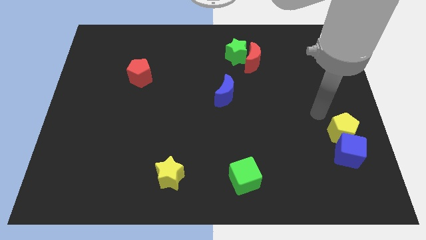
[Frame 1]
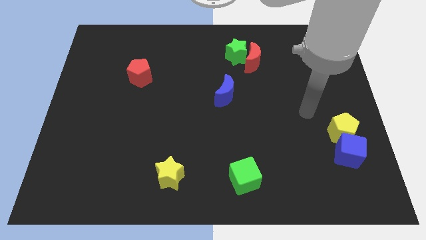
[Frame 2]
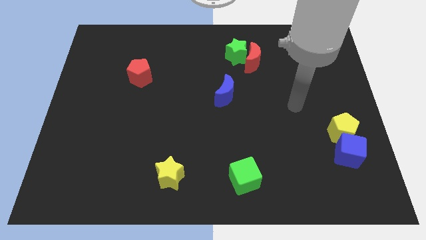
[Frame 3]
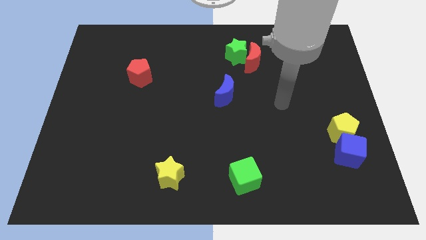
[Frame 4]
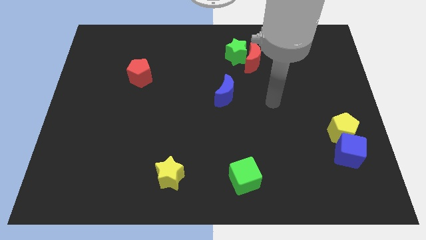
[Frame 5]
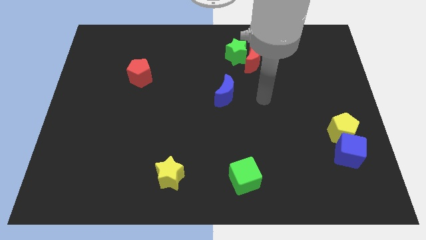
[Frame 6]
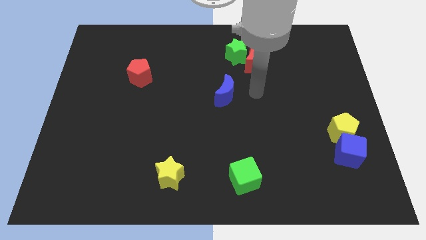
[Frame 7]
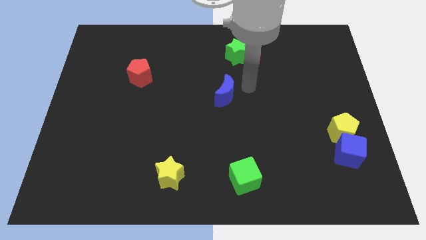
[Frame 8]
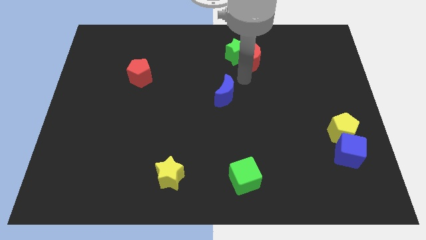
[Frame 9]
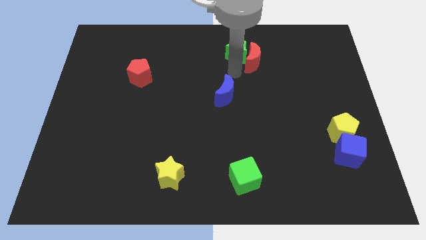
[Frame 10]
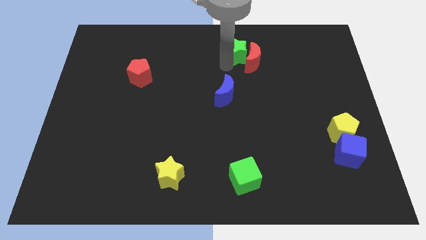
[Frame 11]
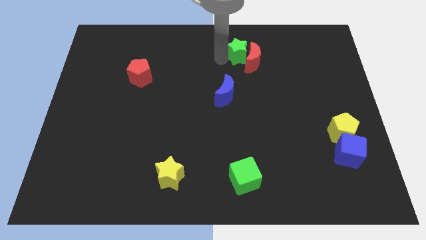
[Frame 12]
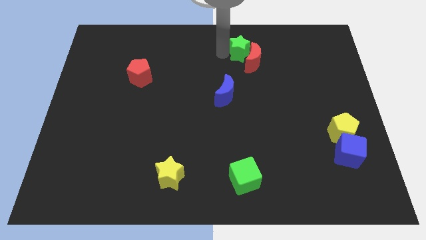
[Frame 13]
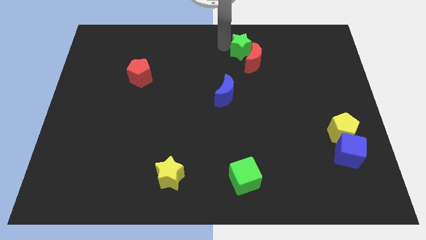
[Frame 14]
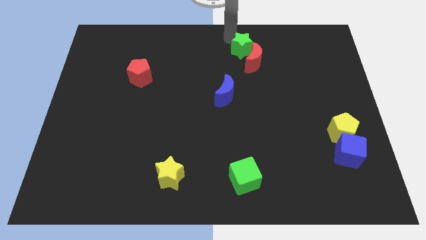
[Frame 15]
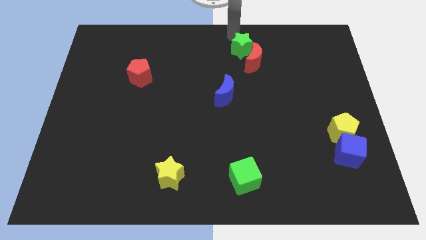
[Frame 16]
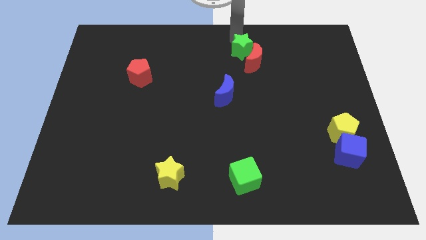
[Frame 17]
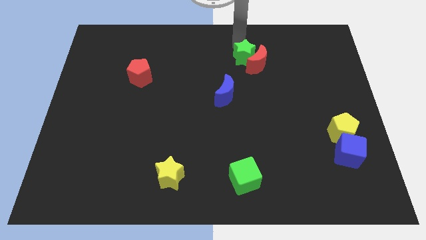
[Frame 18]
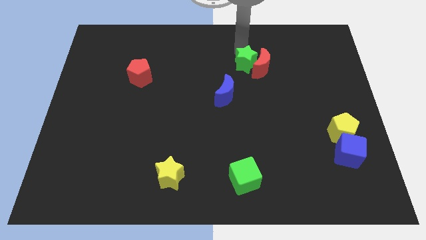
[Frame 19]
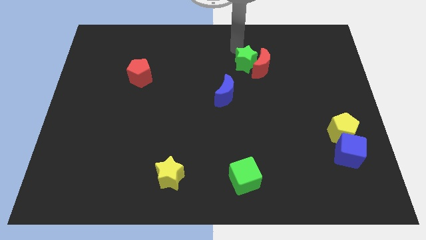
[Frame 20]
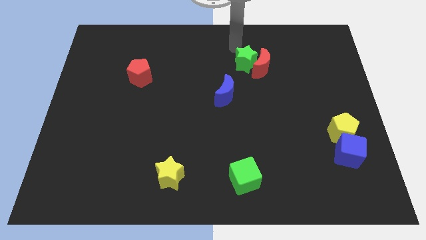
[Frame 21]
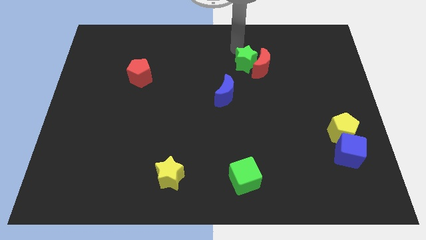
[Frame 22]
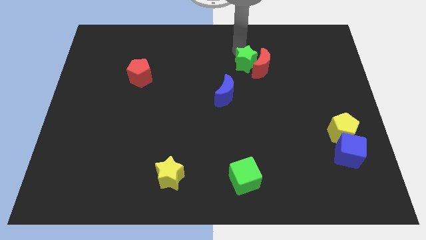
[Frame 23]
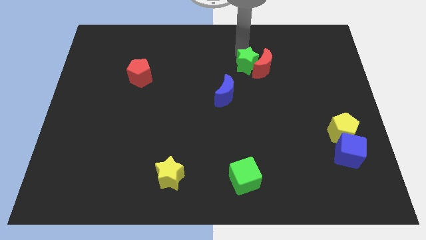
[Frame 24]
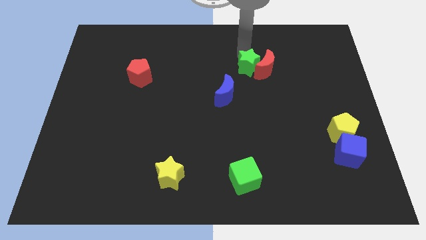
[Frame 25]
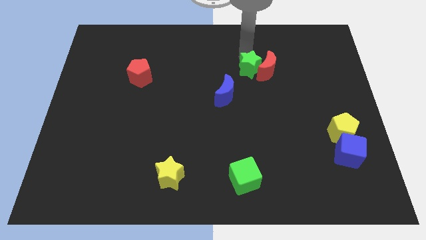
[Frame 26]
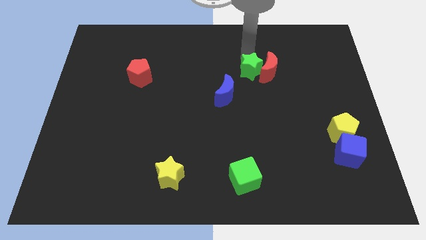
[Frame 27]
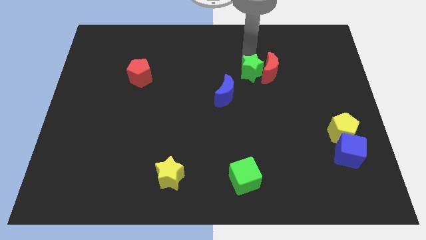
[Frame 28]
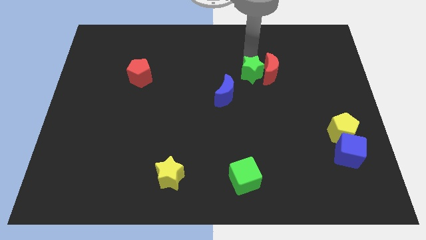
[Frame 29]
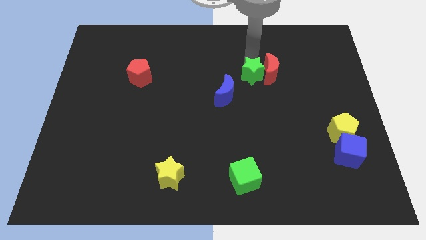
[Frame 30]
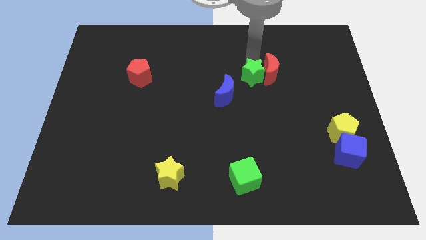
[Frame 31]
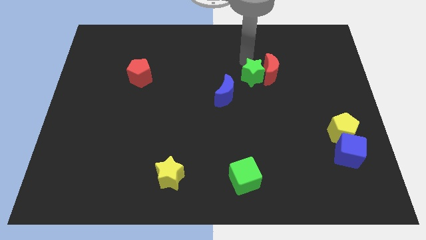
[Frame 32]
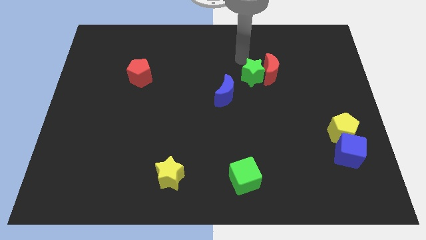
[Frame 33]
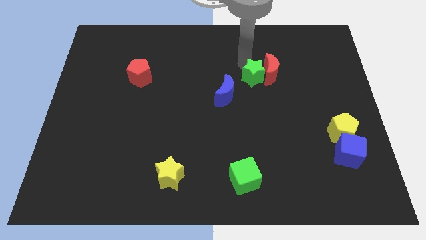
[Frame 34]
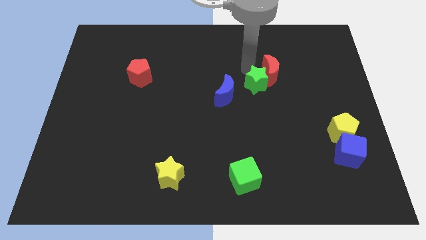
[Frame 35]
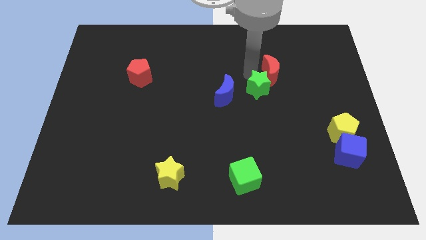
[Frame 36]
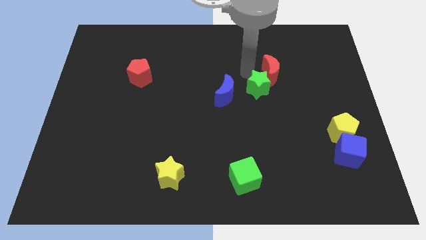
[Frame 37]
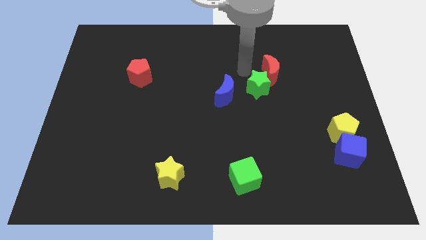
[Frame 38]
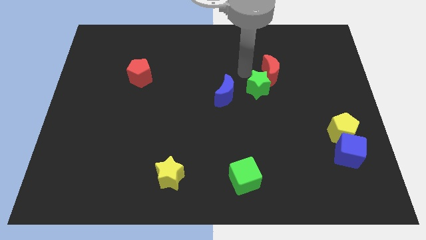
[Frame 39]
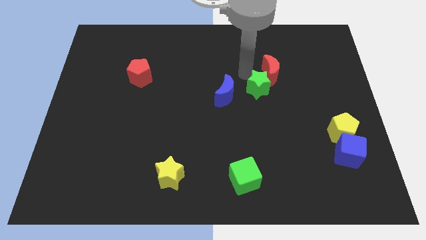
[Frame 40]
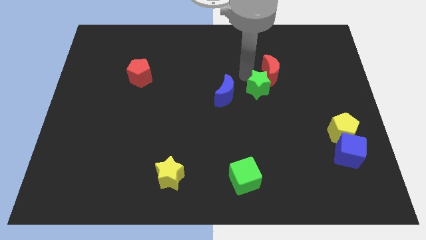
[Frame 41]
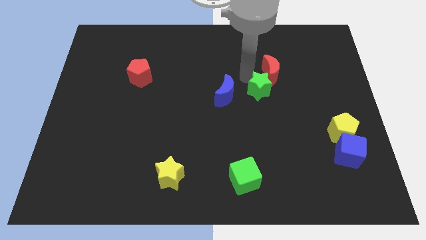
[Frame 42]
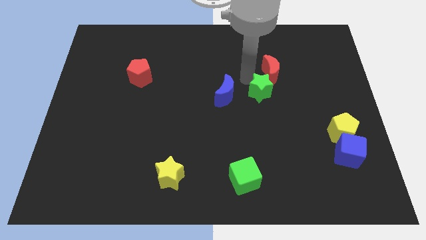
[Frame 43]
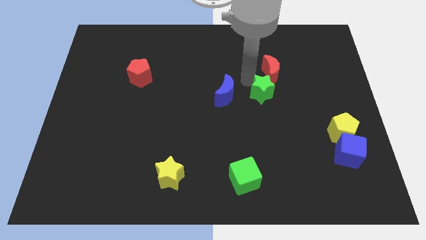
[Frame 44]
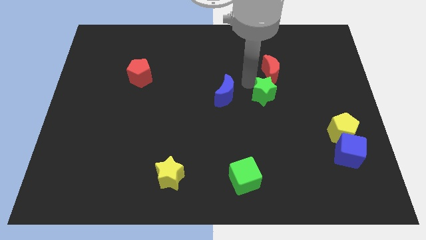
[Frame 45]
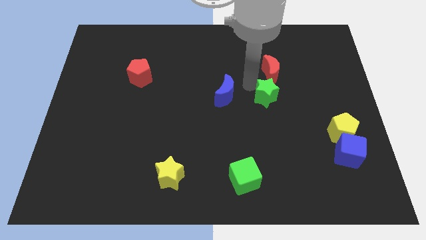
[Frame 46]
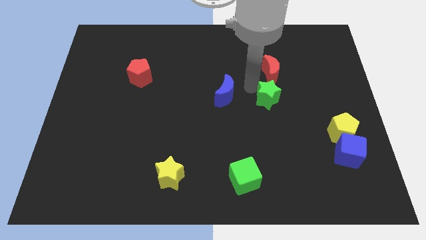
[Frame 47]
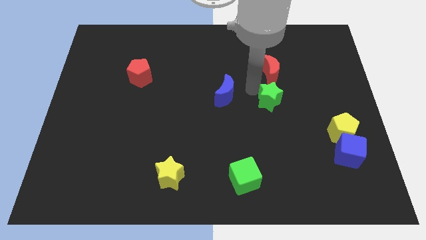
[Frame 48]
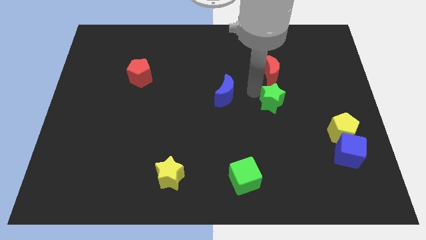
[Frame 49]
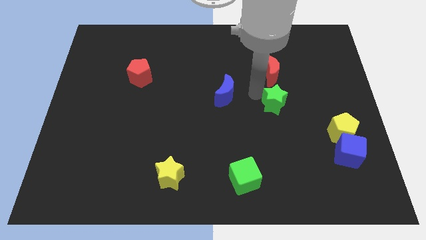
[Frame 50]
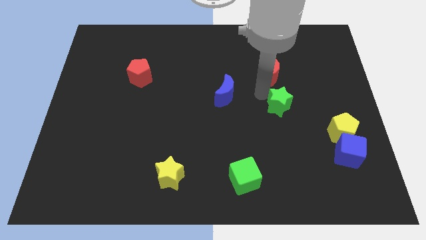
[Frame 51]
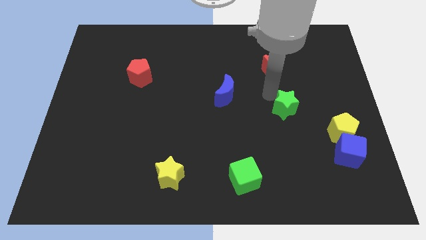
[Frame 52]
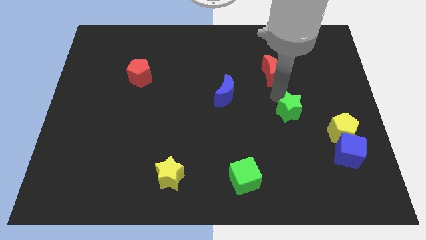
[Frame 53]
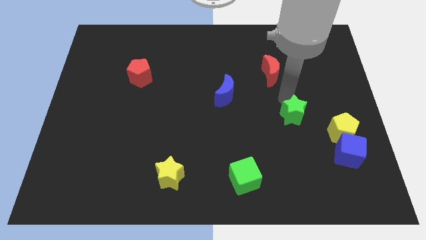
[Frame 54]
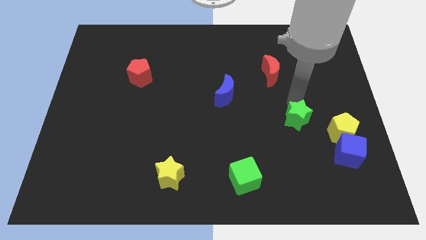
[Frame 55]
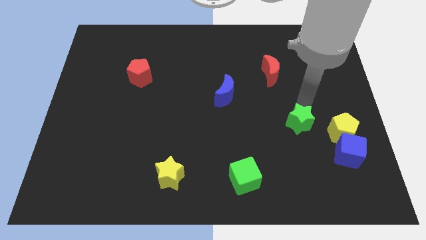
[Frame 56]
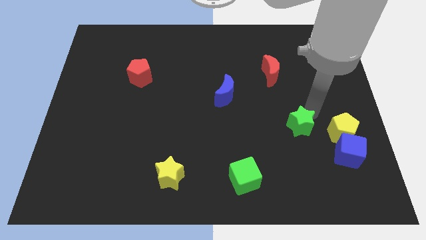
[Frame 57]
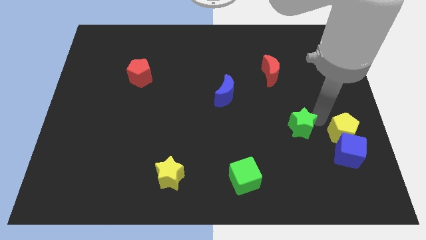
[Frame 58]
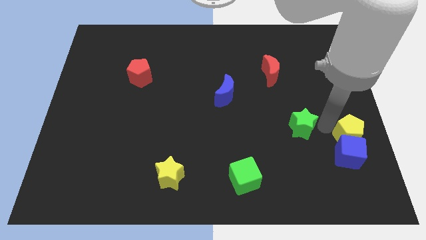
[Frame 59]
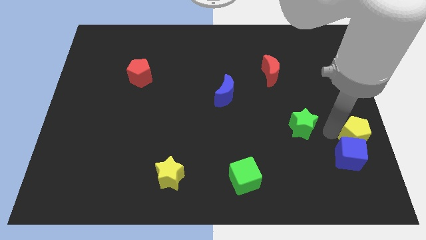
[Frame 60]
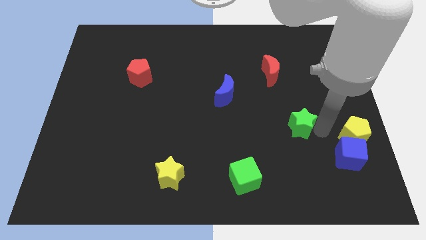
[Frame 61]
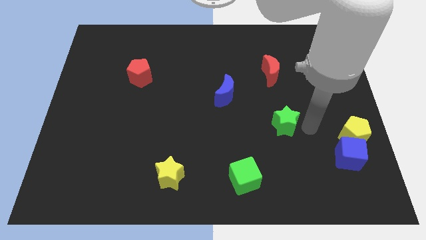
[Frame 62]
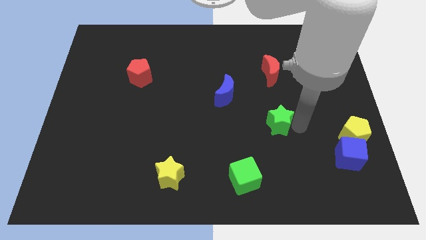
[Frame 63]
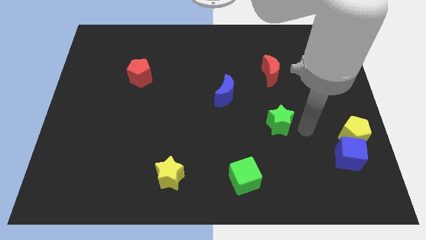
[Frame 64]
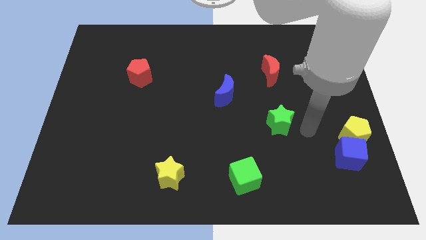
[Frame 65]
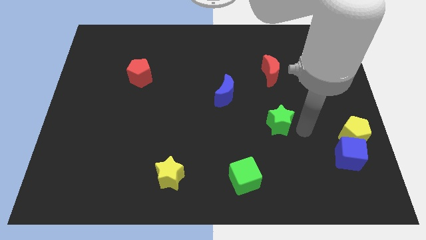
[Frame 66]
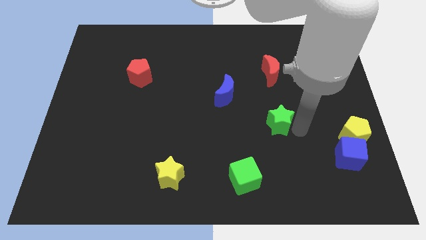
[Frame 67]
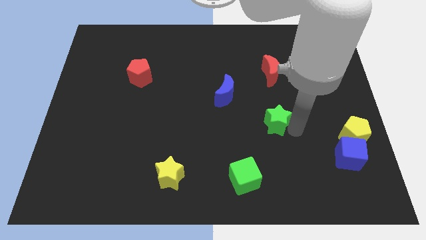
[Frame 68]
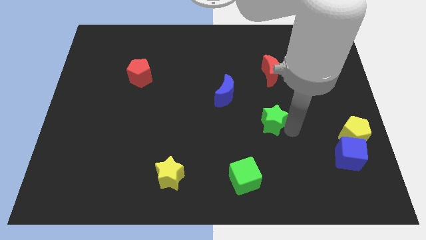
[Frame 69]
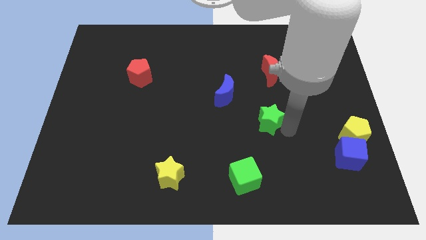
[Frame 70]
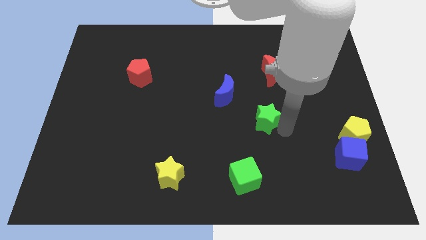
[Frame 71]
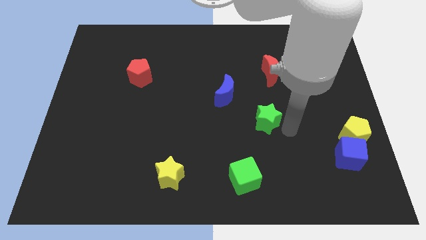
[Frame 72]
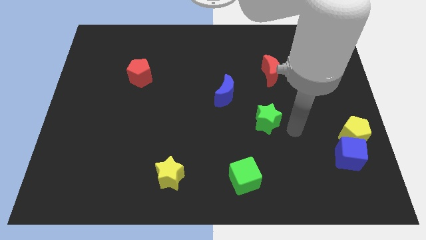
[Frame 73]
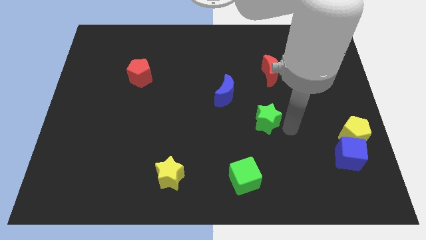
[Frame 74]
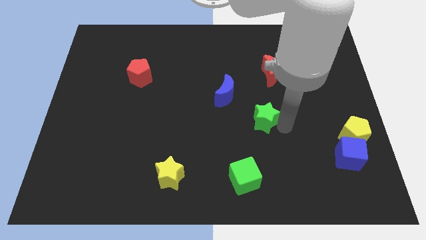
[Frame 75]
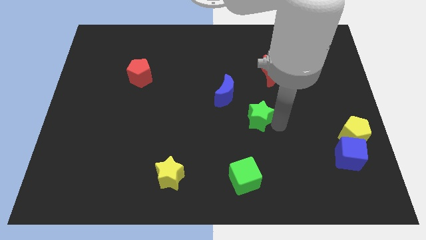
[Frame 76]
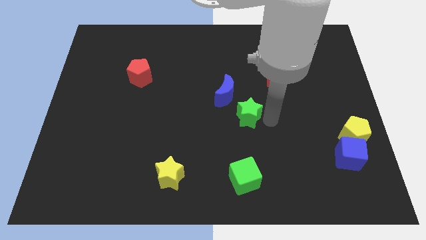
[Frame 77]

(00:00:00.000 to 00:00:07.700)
push the green star to the bottom of the blue moon
